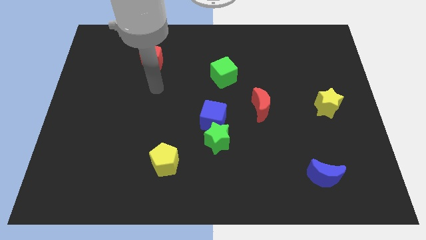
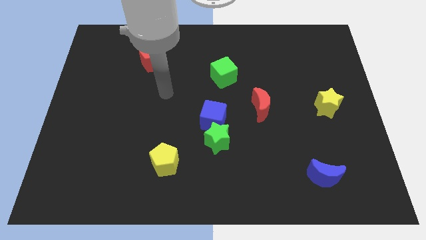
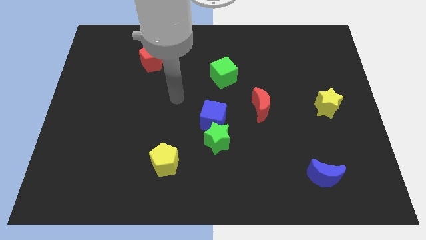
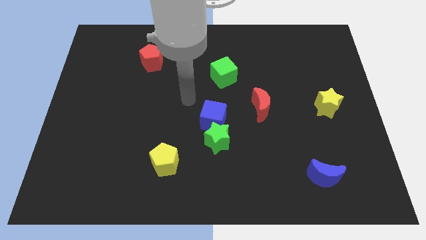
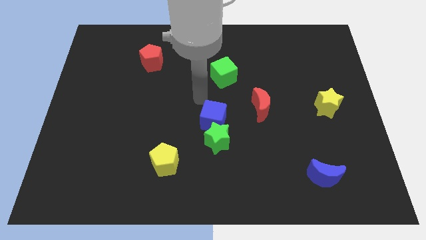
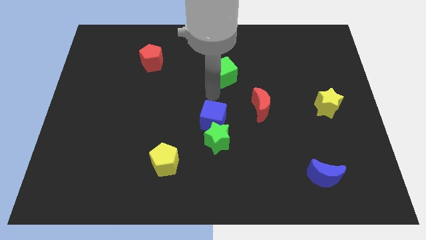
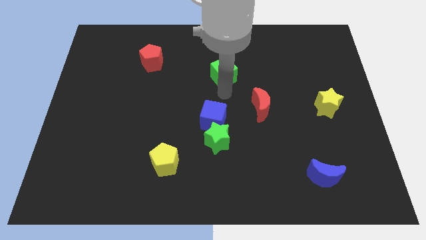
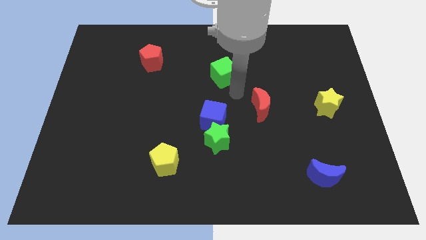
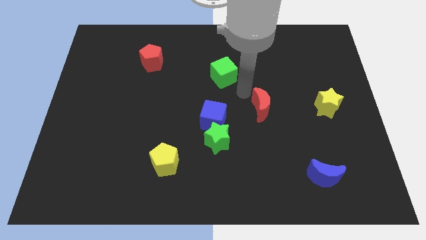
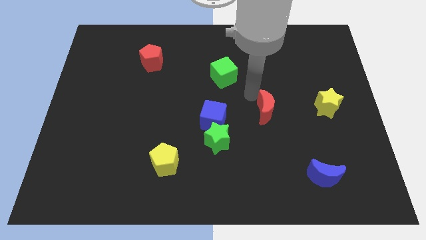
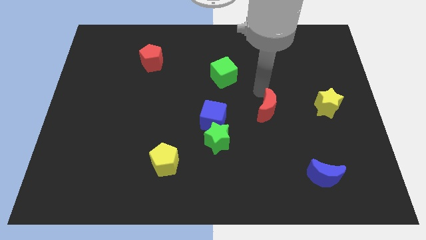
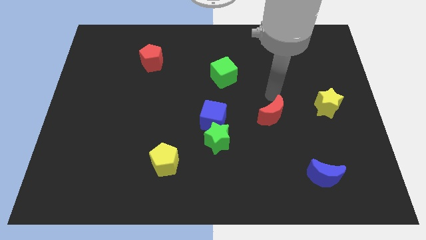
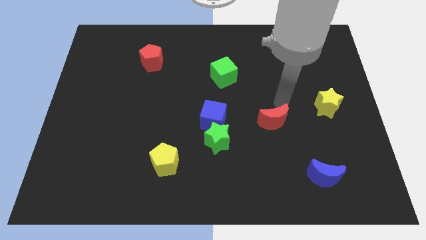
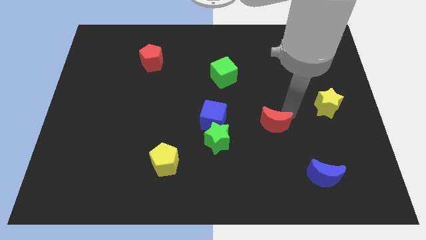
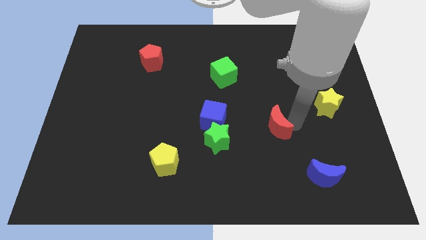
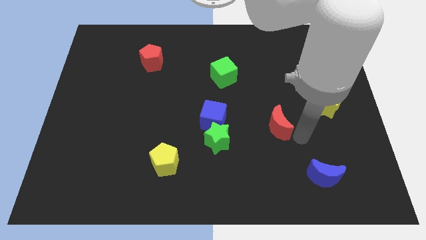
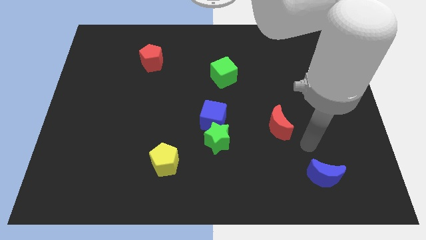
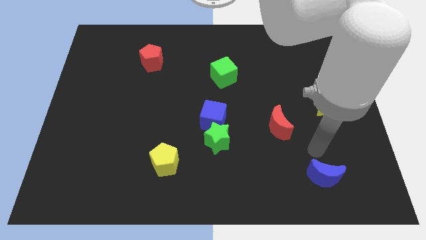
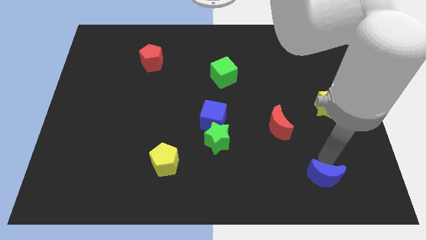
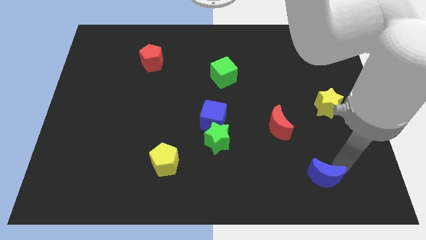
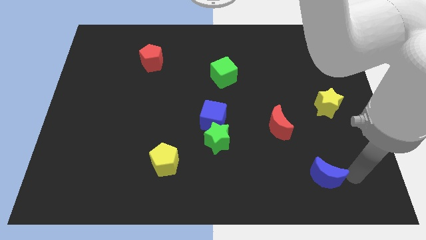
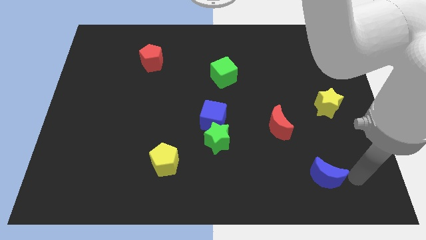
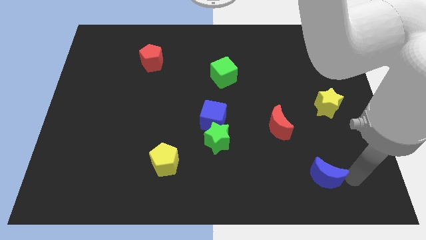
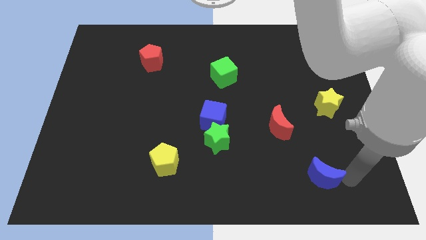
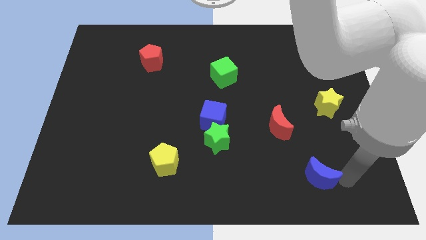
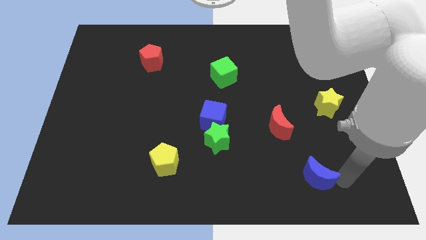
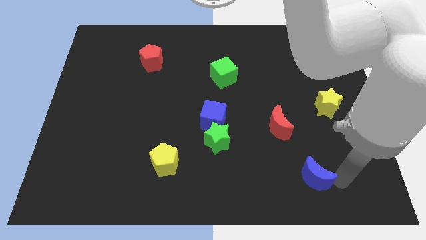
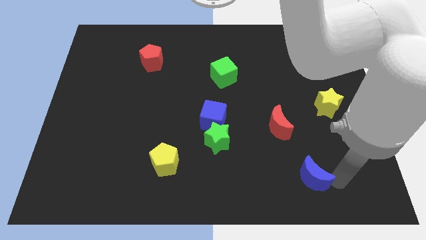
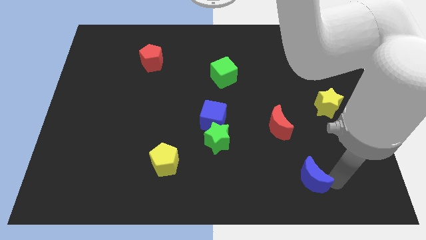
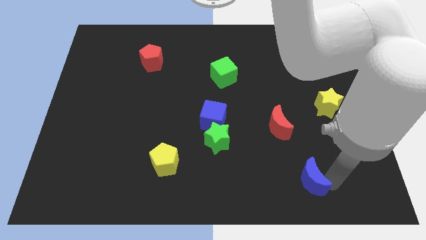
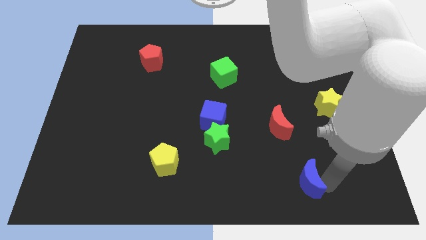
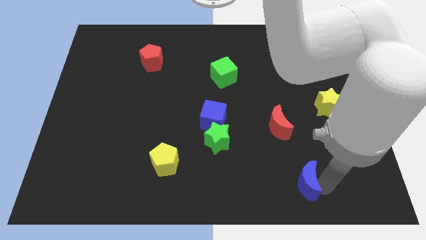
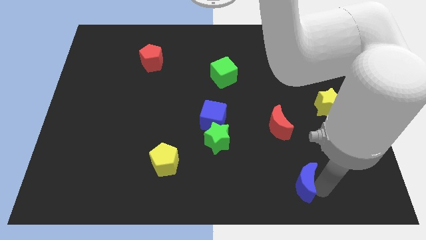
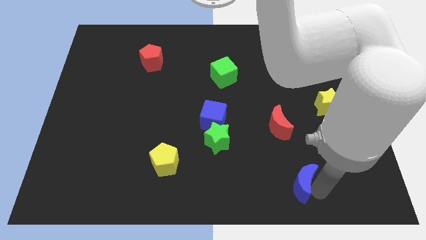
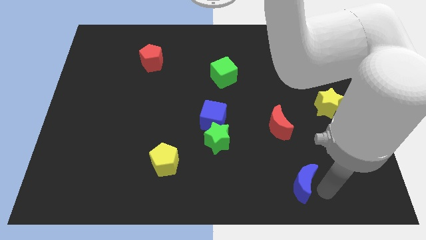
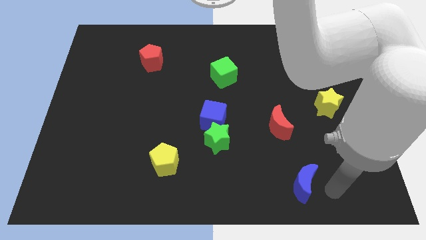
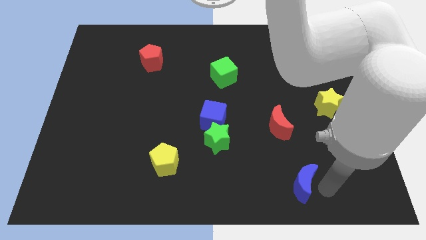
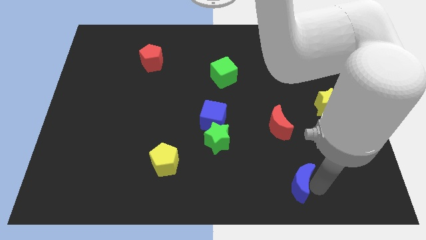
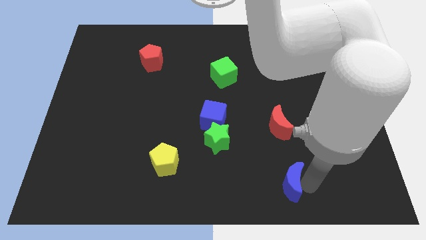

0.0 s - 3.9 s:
slightly move the blue moon left

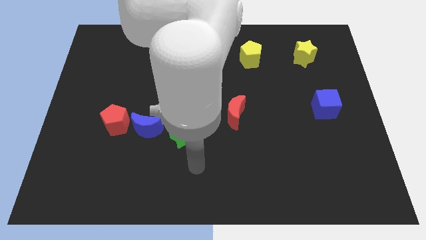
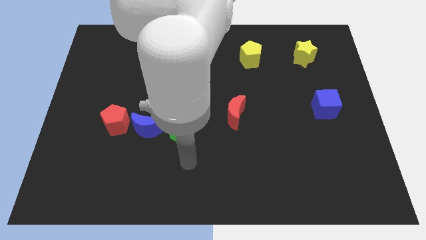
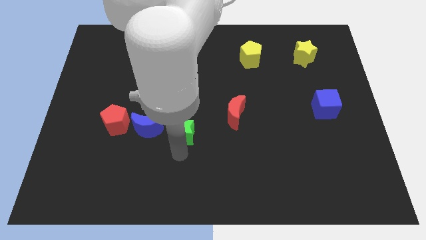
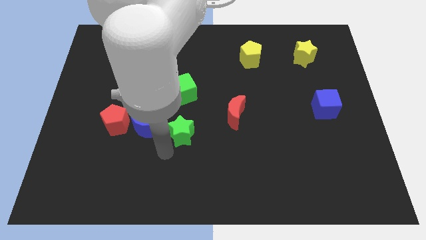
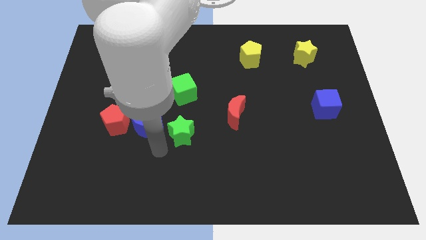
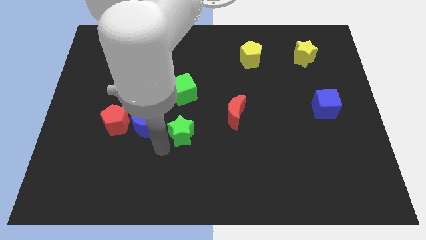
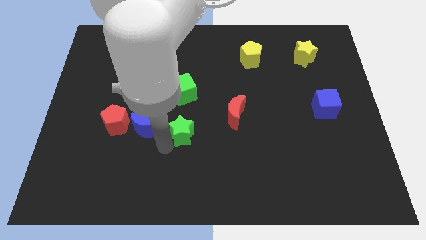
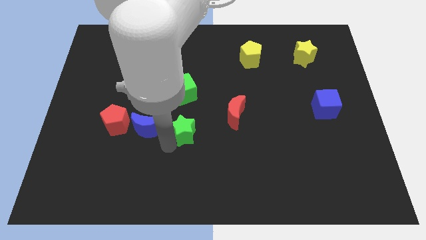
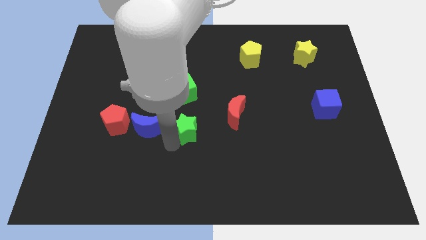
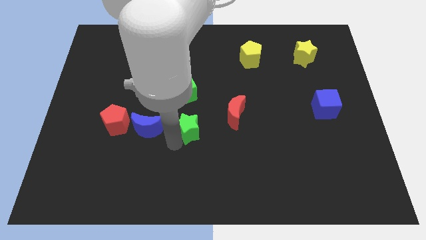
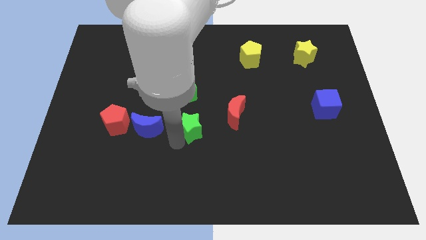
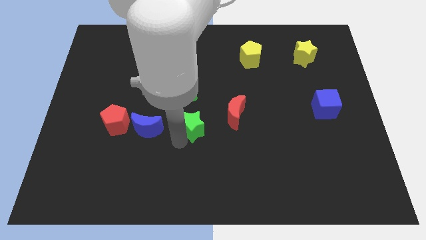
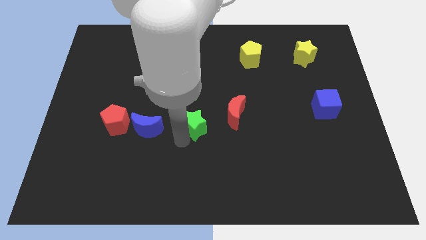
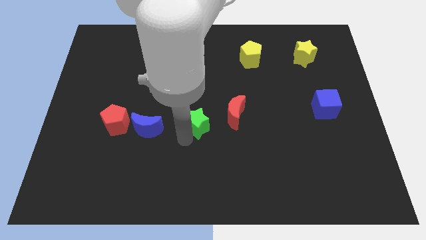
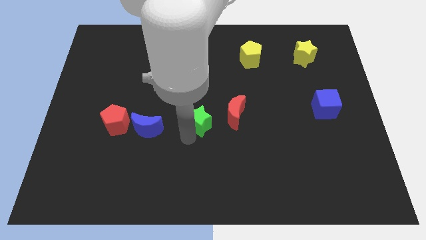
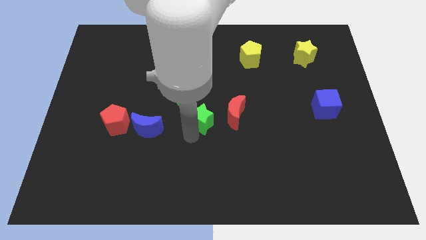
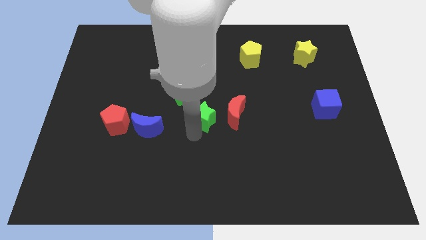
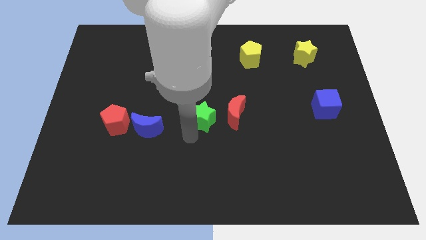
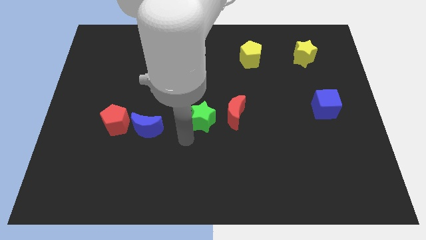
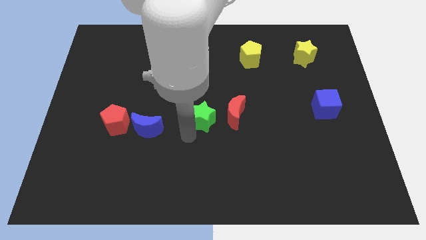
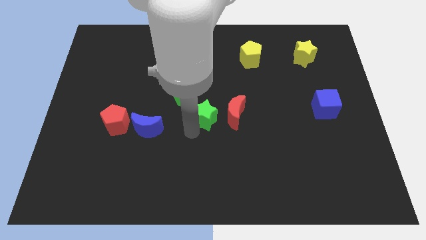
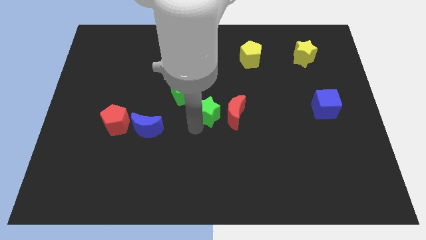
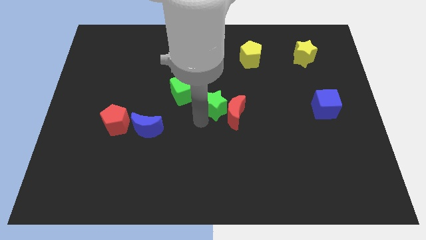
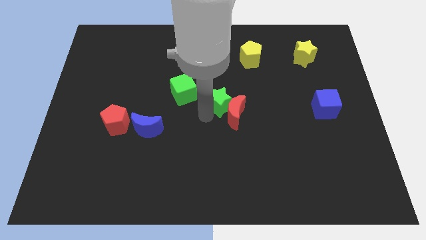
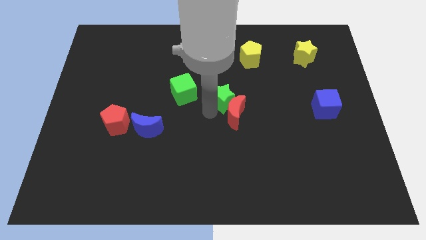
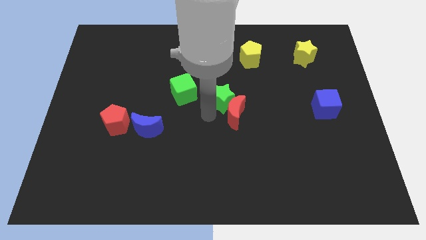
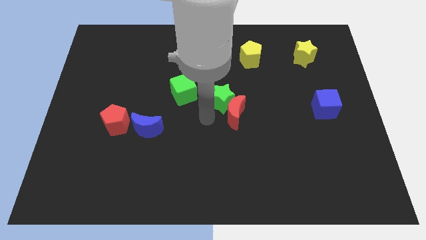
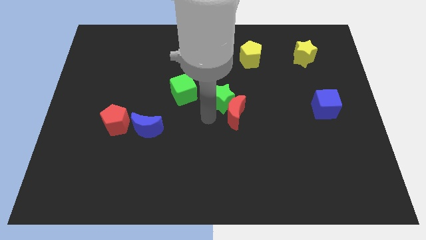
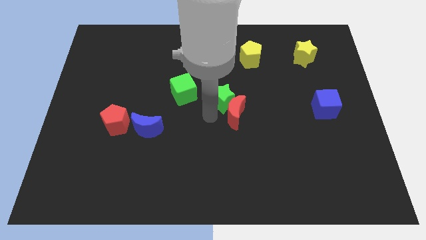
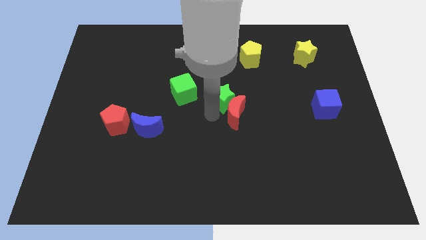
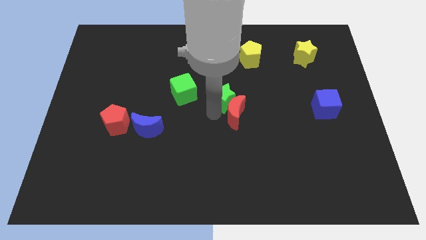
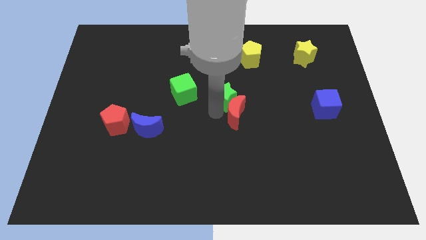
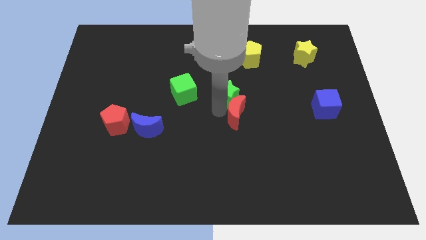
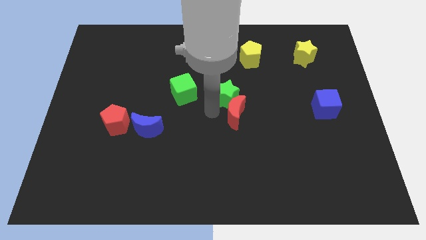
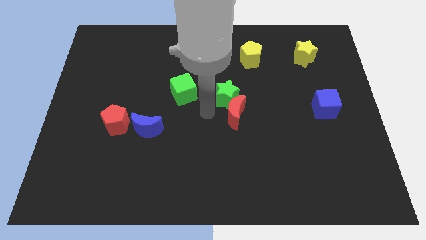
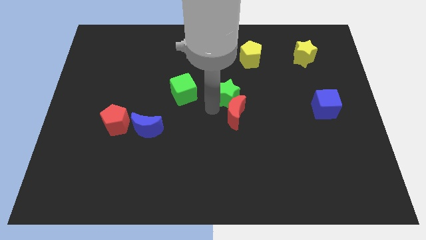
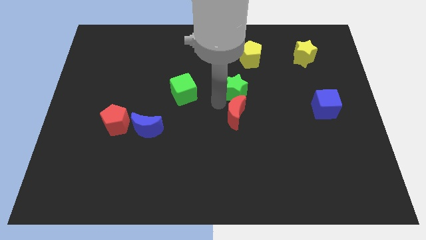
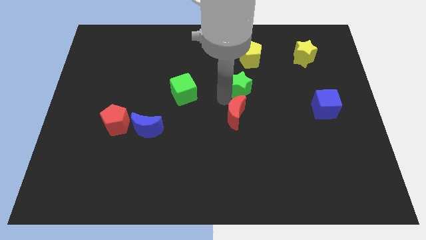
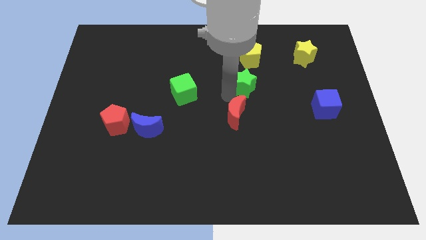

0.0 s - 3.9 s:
push the green star upwards and then to the right

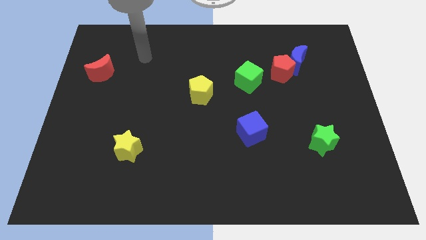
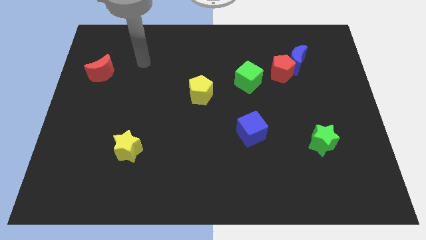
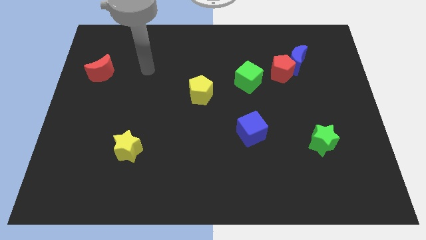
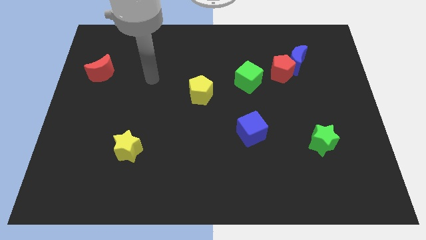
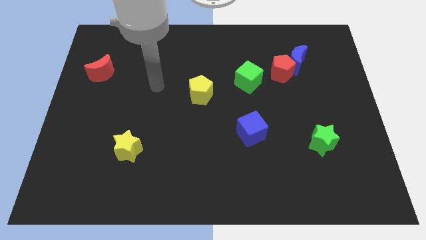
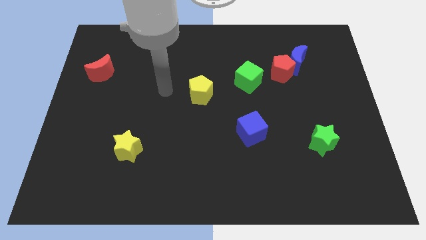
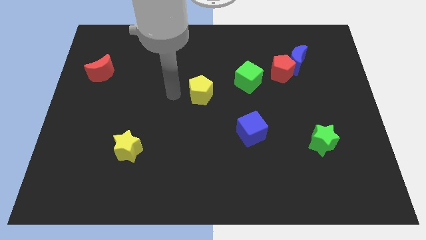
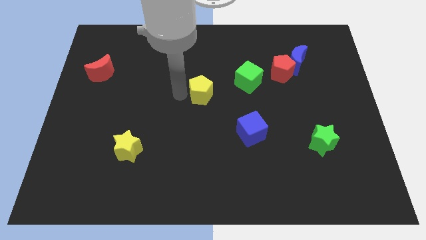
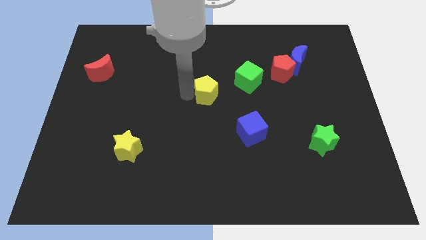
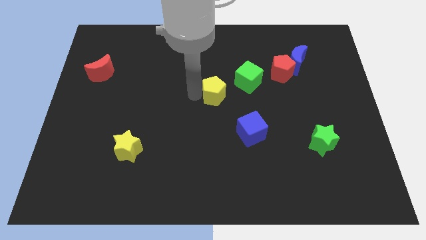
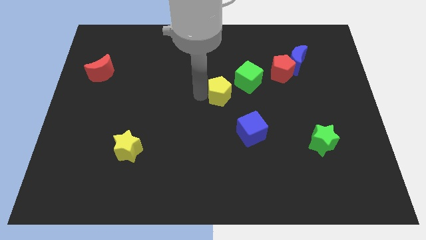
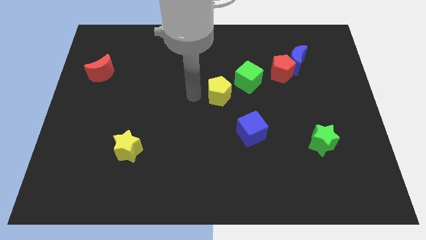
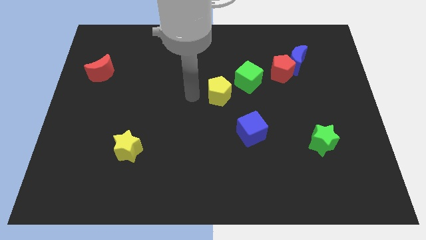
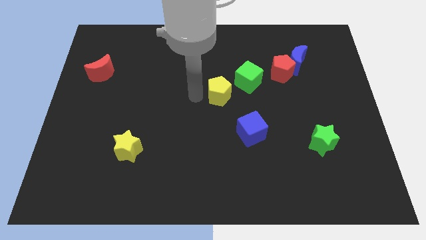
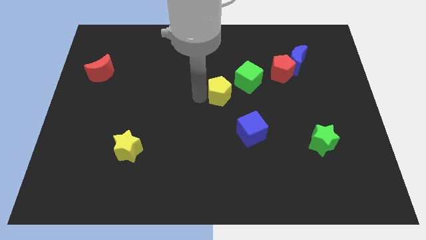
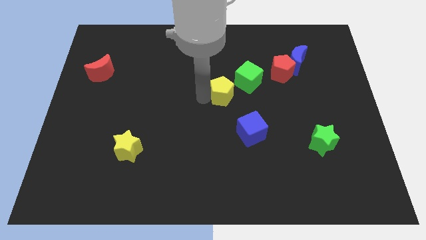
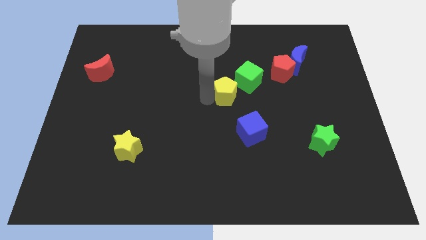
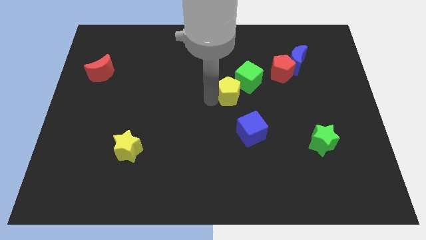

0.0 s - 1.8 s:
push the yellow pentagon right somewhat
